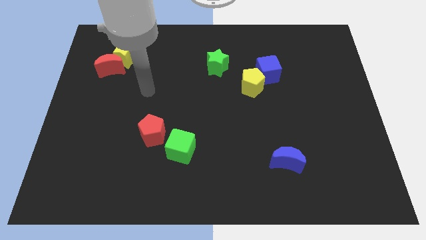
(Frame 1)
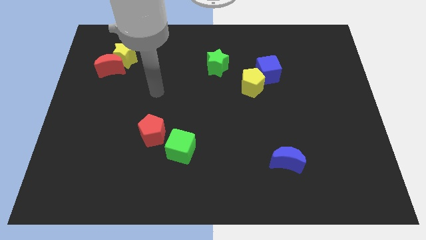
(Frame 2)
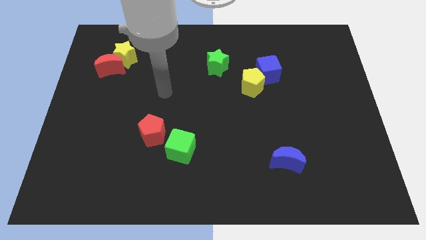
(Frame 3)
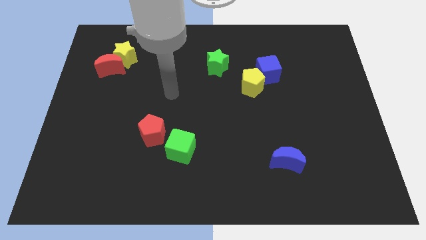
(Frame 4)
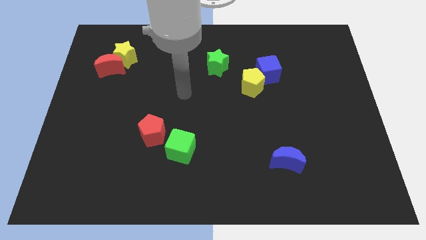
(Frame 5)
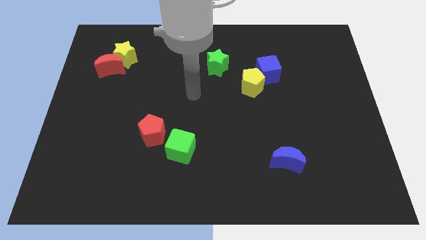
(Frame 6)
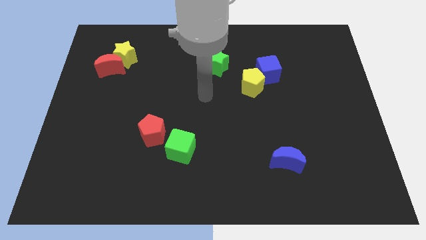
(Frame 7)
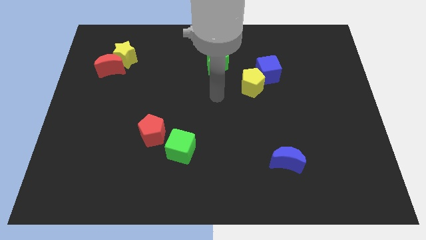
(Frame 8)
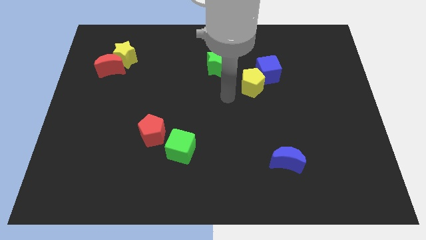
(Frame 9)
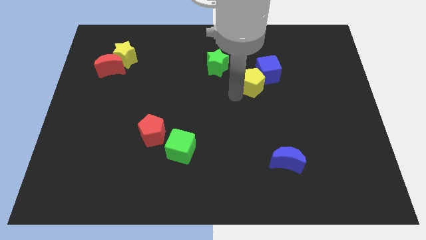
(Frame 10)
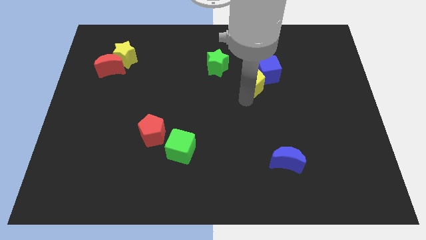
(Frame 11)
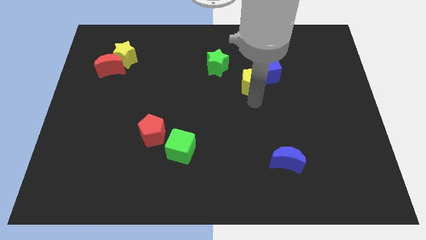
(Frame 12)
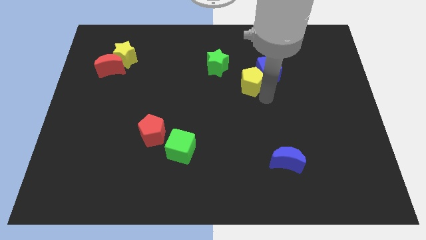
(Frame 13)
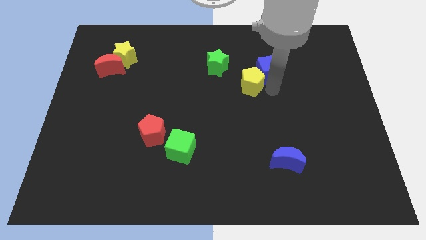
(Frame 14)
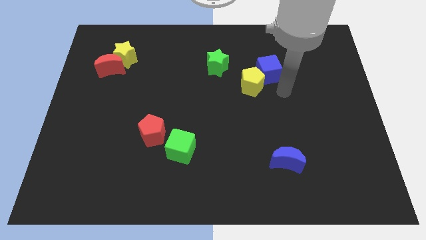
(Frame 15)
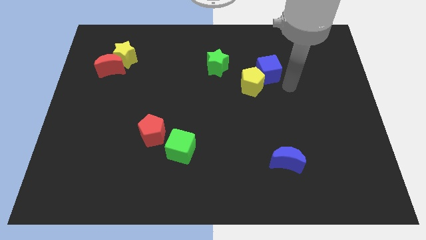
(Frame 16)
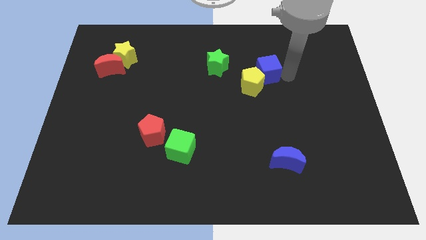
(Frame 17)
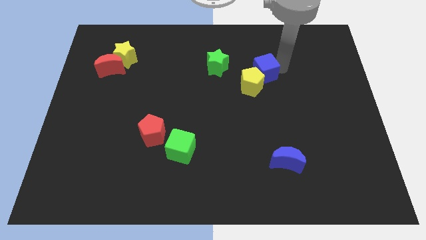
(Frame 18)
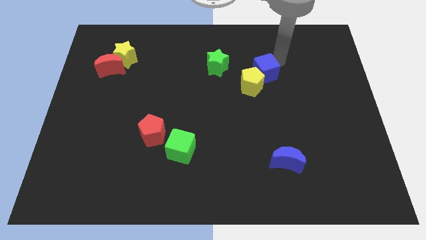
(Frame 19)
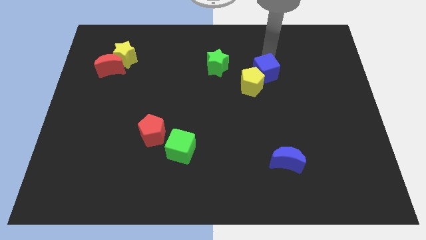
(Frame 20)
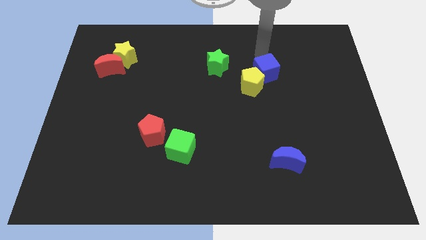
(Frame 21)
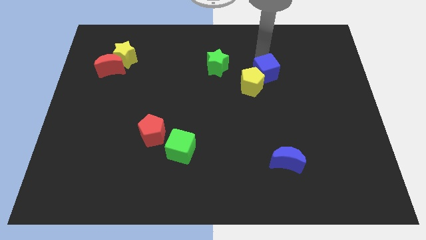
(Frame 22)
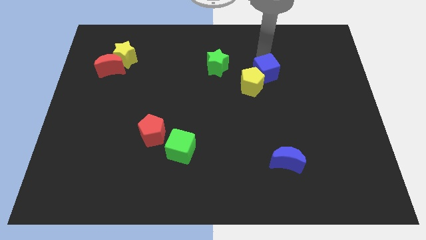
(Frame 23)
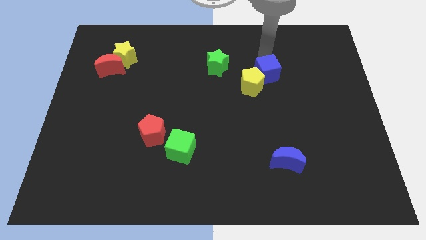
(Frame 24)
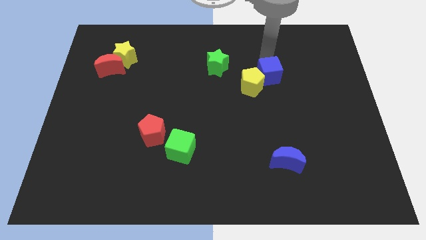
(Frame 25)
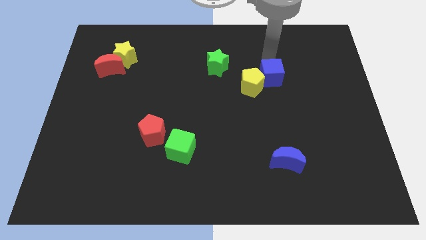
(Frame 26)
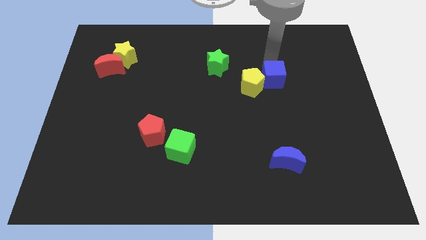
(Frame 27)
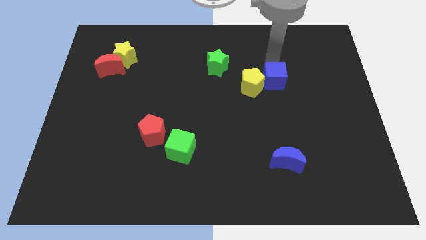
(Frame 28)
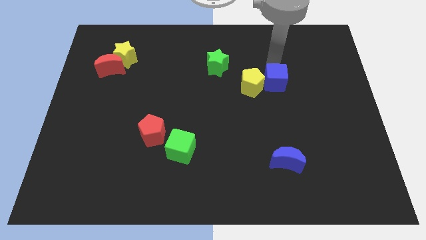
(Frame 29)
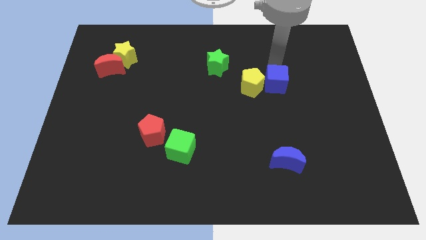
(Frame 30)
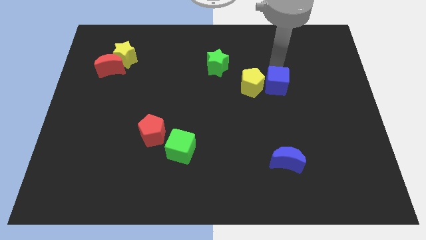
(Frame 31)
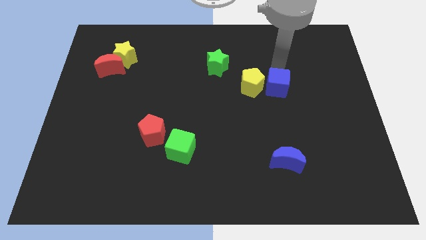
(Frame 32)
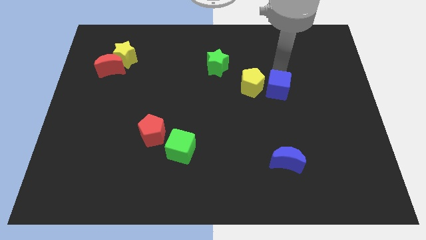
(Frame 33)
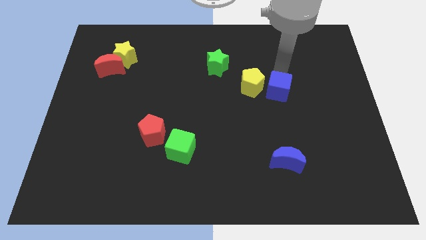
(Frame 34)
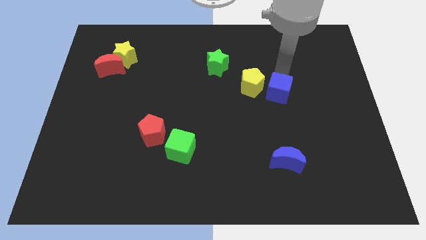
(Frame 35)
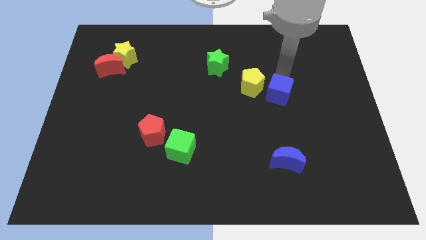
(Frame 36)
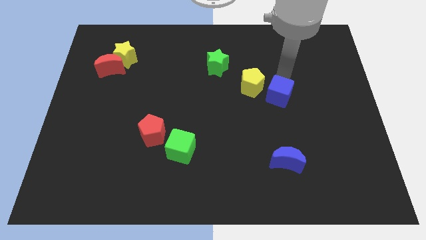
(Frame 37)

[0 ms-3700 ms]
push the blue cube downwards somewhat

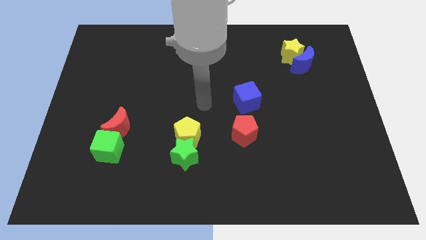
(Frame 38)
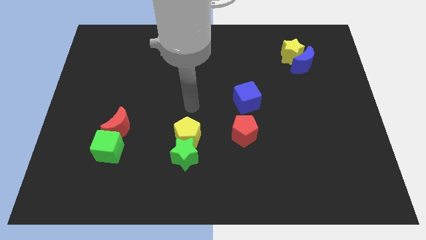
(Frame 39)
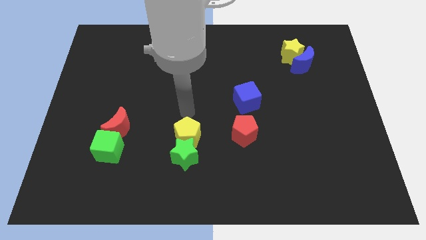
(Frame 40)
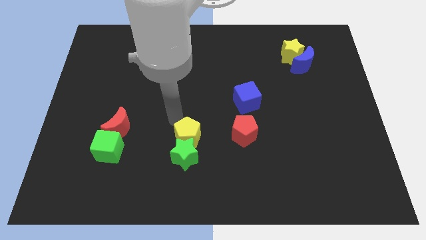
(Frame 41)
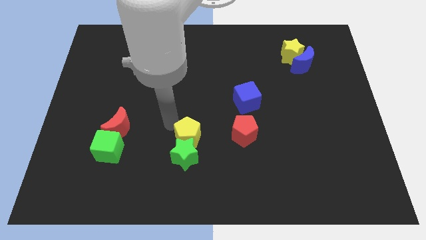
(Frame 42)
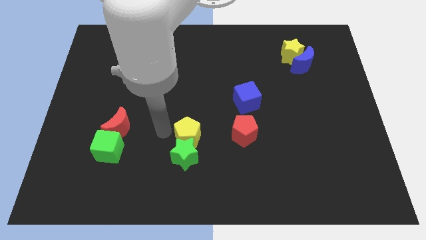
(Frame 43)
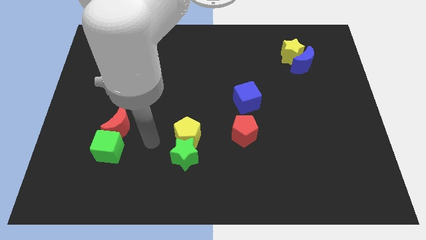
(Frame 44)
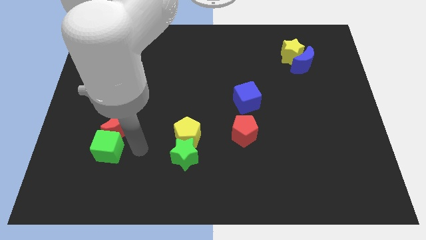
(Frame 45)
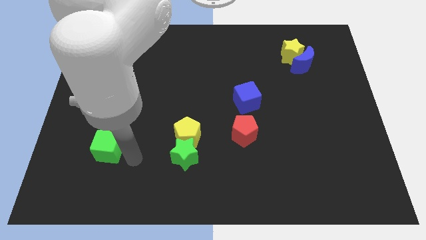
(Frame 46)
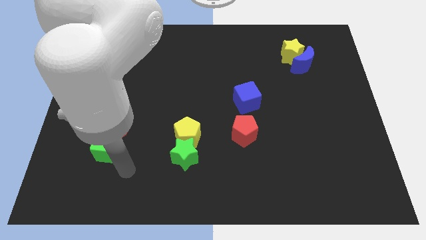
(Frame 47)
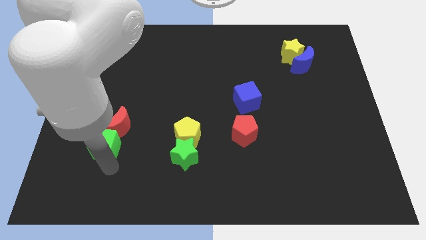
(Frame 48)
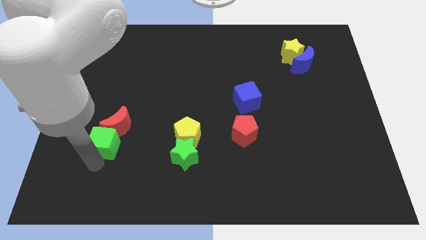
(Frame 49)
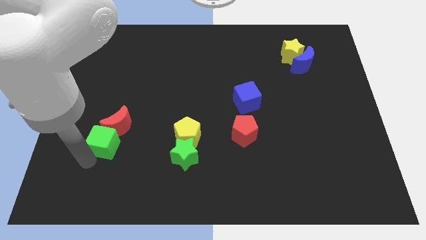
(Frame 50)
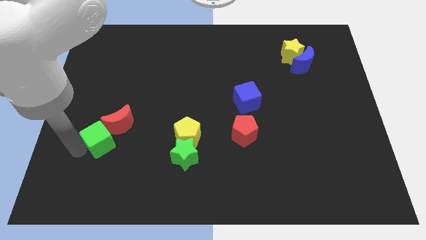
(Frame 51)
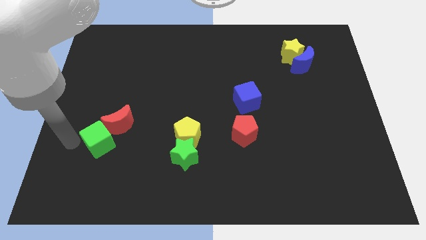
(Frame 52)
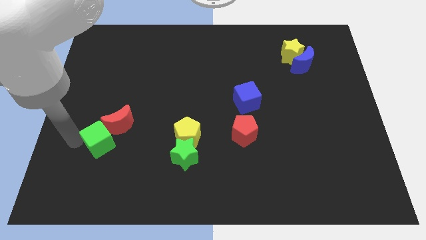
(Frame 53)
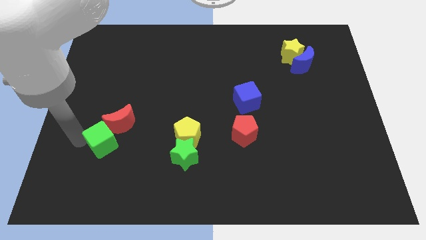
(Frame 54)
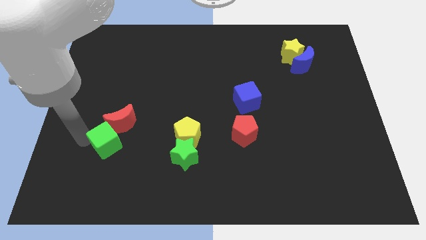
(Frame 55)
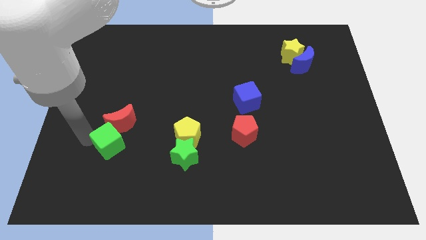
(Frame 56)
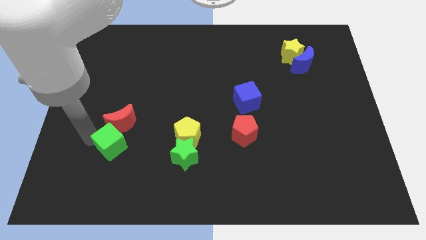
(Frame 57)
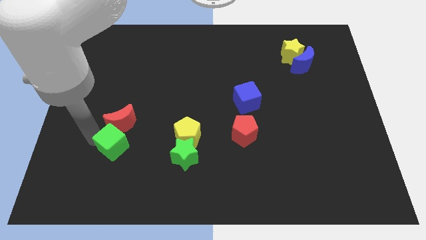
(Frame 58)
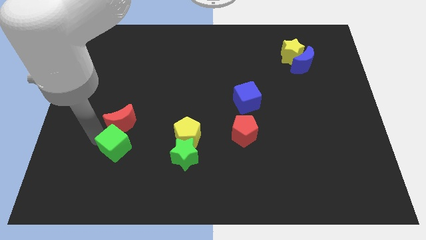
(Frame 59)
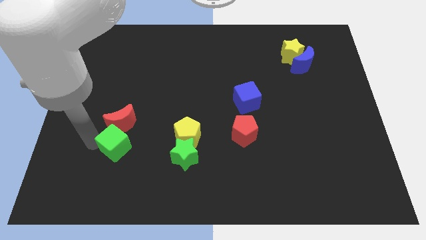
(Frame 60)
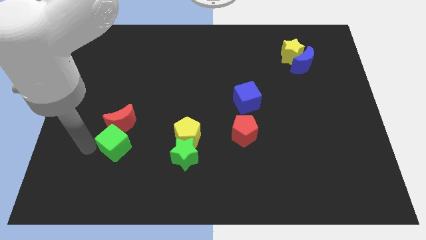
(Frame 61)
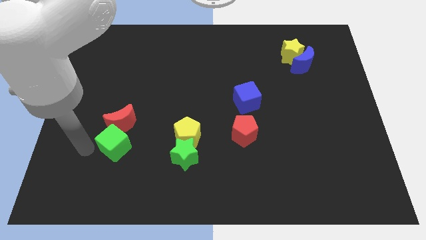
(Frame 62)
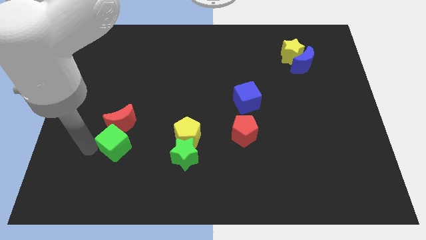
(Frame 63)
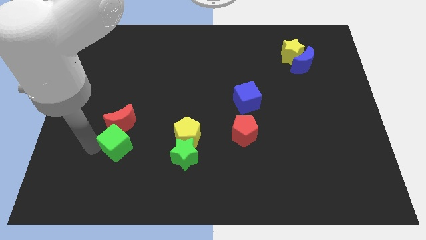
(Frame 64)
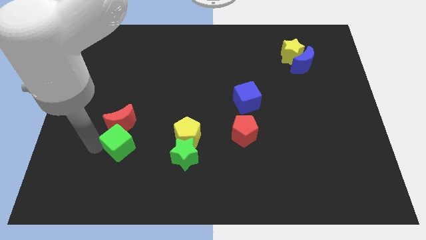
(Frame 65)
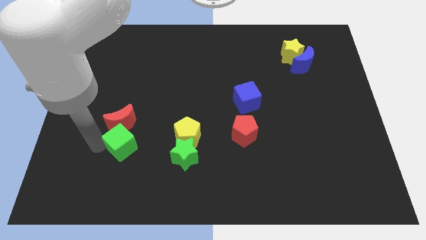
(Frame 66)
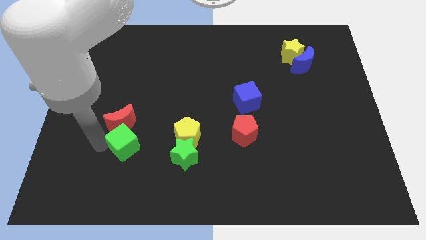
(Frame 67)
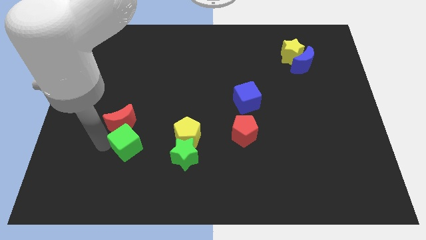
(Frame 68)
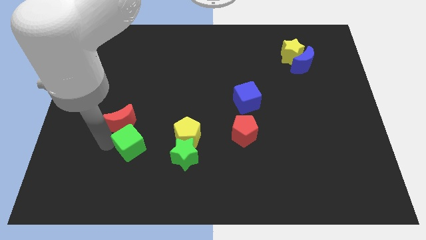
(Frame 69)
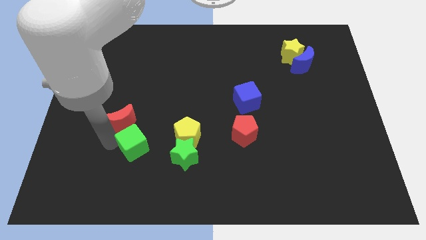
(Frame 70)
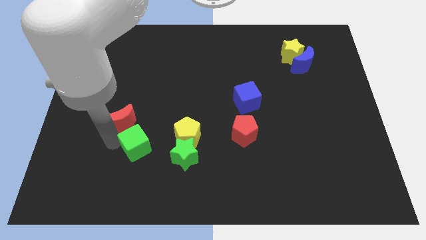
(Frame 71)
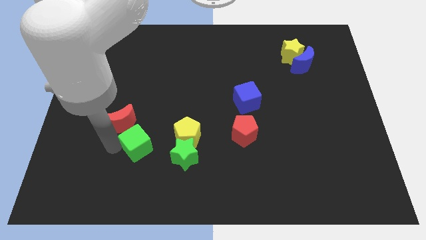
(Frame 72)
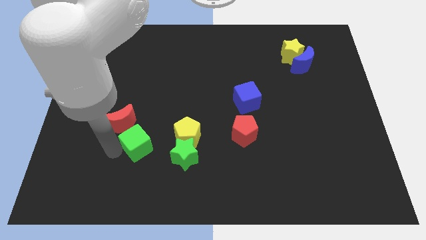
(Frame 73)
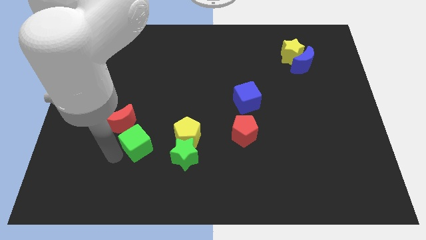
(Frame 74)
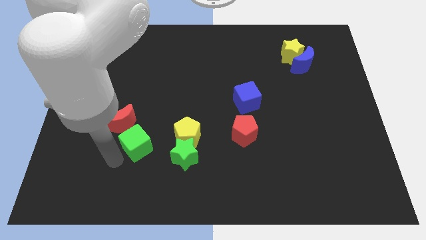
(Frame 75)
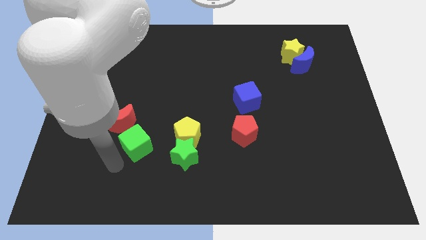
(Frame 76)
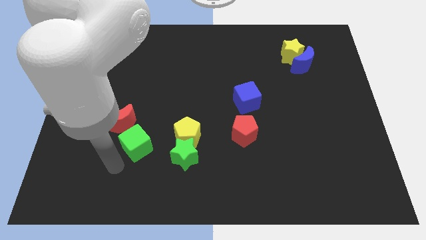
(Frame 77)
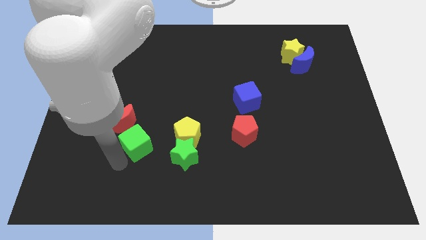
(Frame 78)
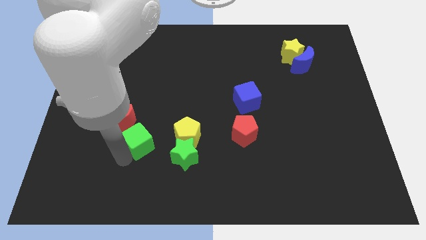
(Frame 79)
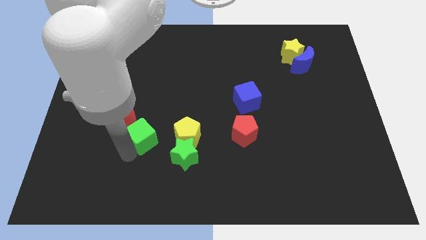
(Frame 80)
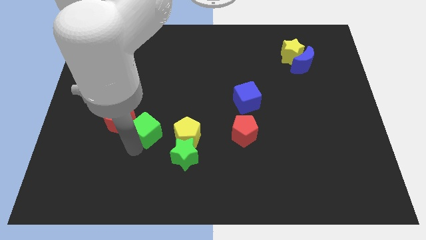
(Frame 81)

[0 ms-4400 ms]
slightly slide the green cube up and to the right
